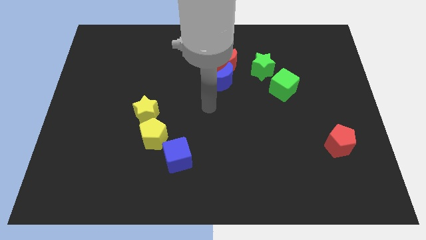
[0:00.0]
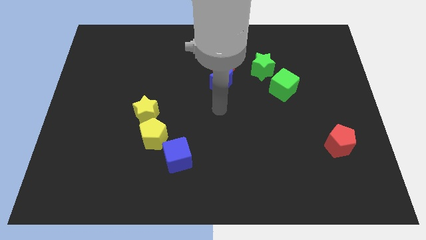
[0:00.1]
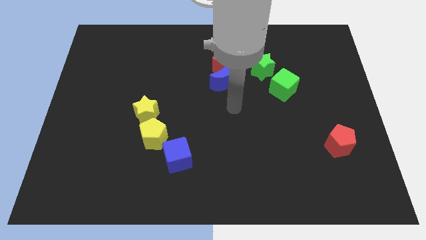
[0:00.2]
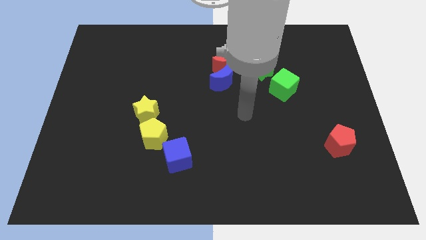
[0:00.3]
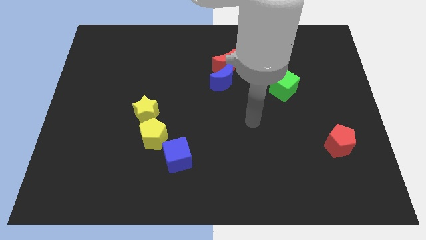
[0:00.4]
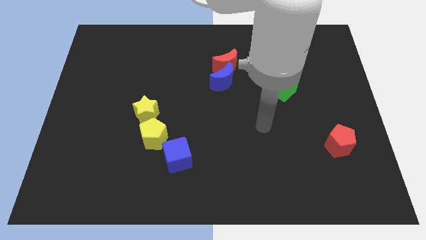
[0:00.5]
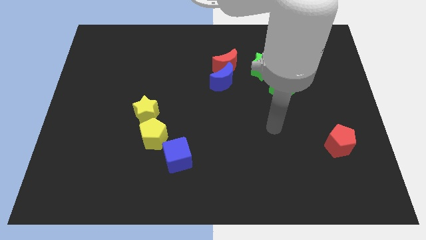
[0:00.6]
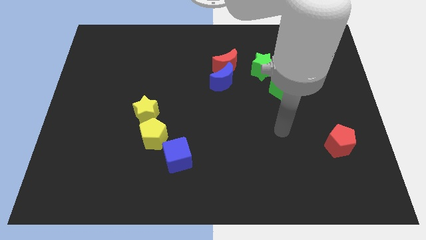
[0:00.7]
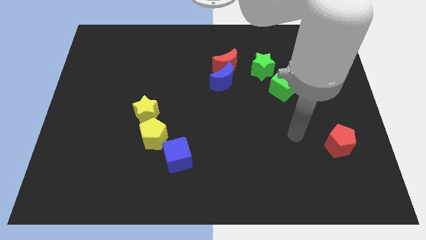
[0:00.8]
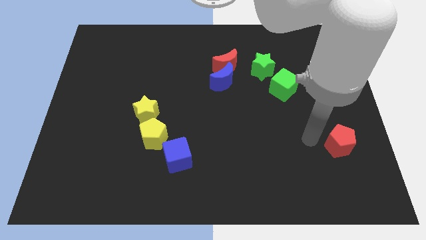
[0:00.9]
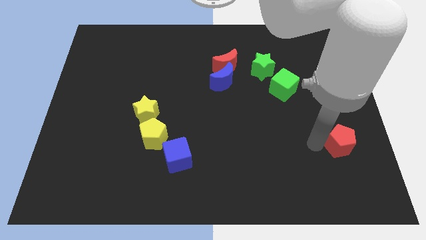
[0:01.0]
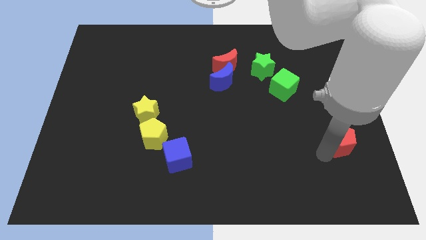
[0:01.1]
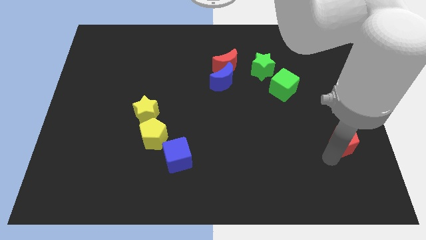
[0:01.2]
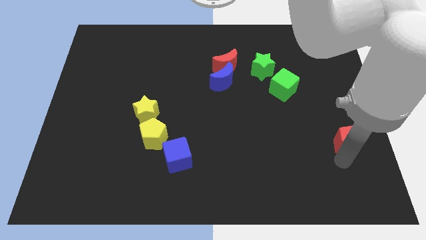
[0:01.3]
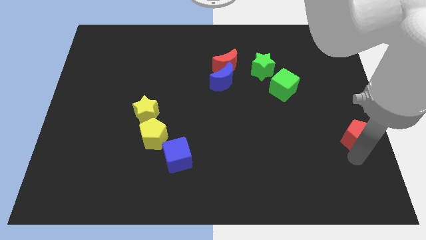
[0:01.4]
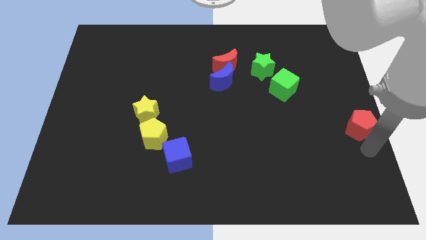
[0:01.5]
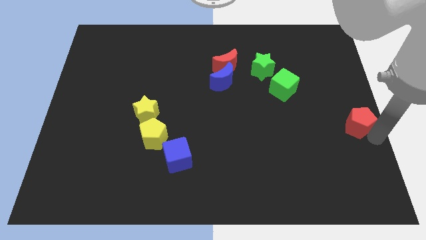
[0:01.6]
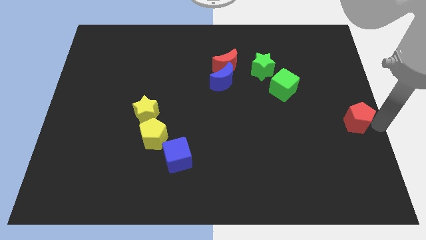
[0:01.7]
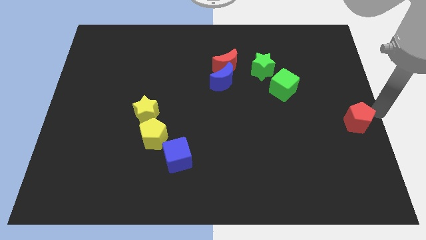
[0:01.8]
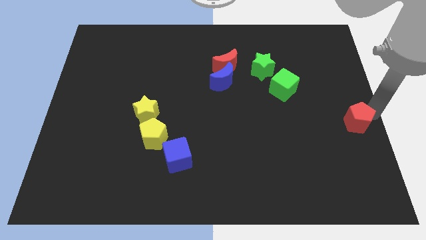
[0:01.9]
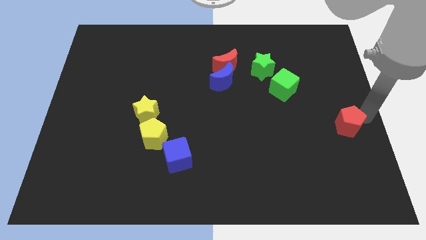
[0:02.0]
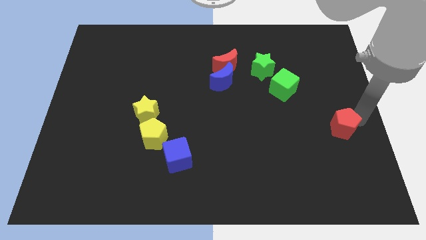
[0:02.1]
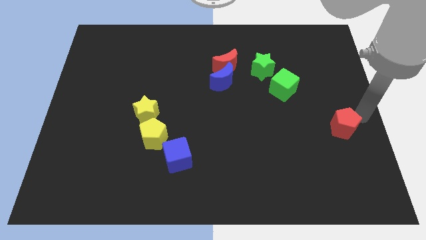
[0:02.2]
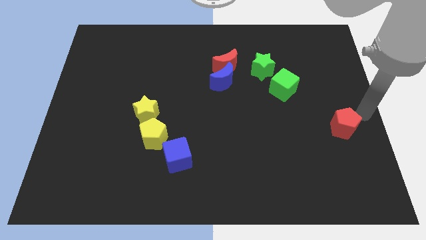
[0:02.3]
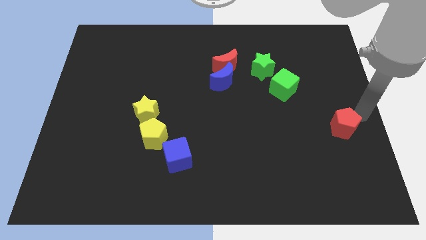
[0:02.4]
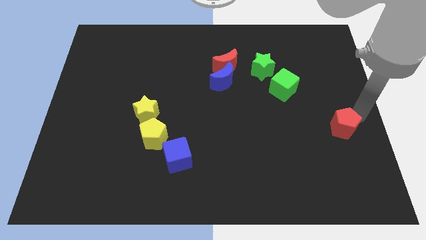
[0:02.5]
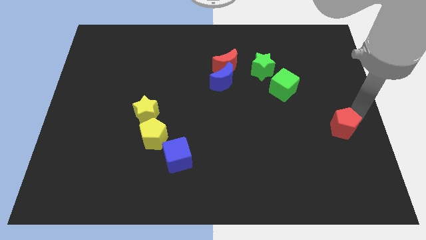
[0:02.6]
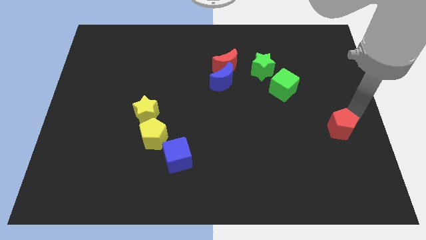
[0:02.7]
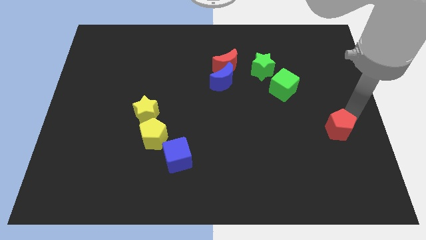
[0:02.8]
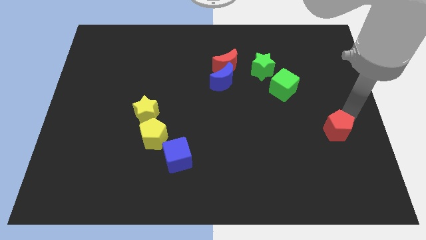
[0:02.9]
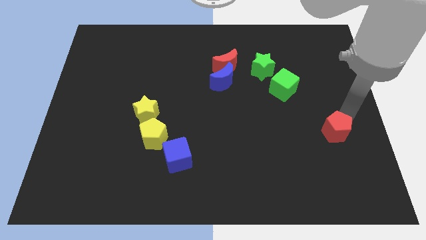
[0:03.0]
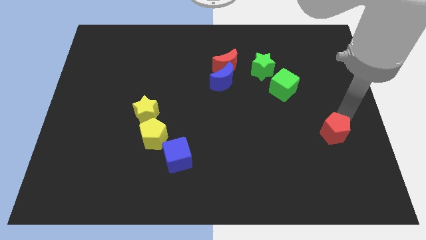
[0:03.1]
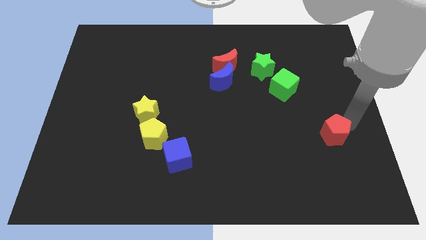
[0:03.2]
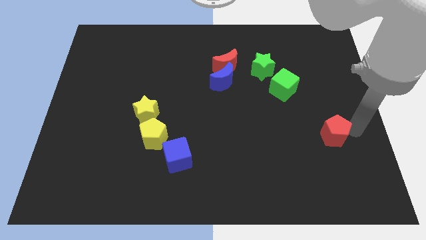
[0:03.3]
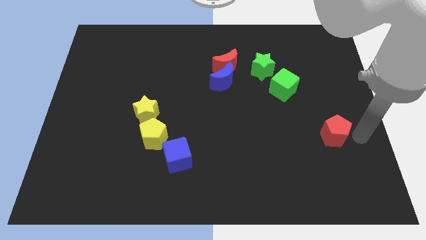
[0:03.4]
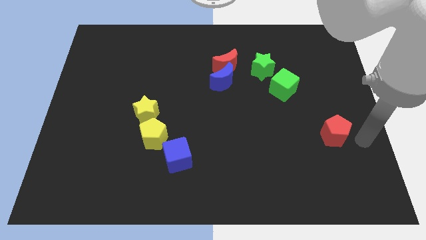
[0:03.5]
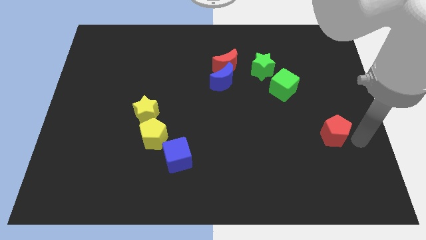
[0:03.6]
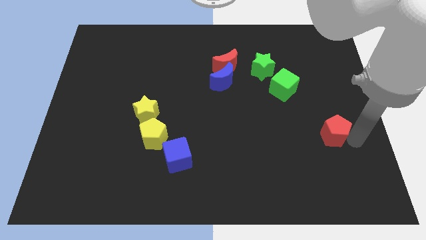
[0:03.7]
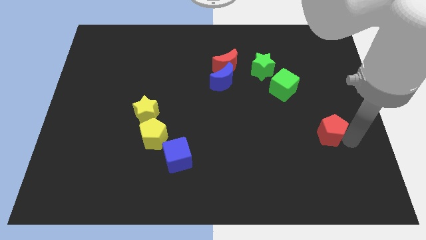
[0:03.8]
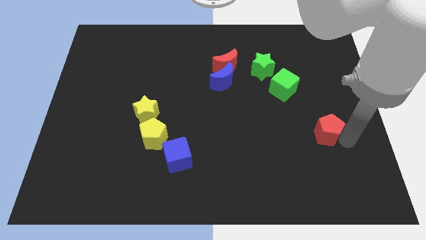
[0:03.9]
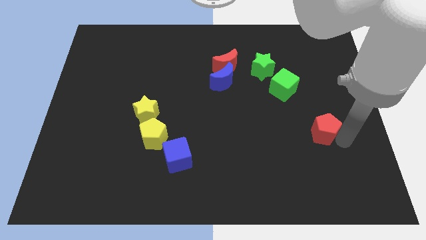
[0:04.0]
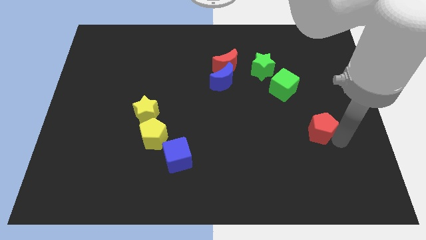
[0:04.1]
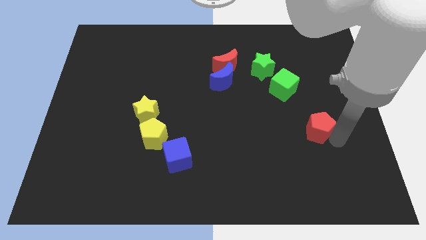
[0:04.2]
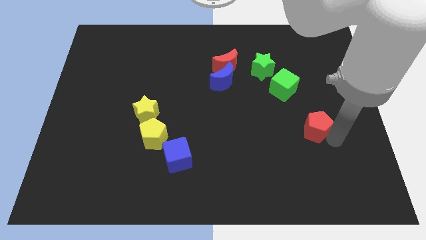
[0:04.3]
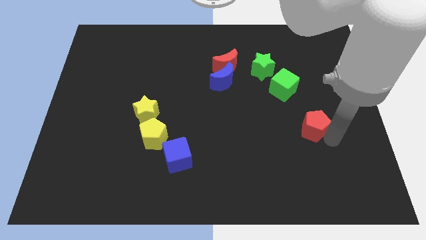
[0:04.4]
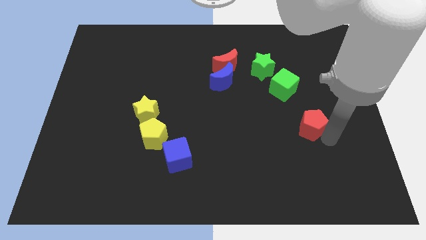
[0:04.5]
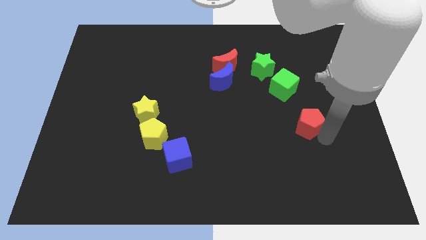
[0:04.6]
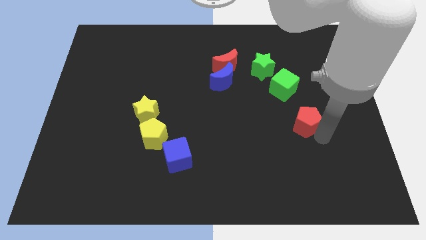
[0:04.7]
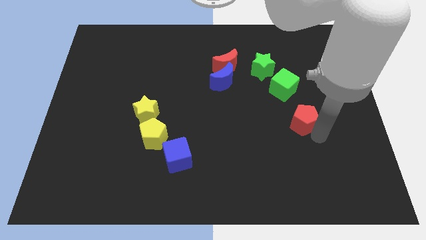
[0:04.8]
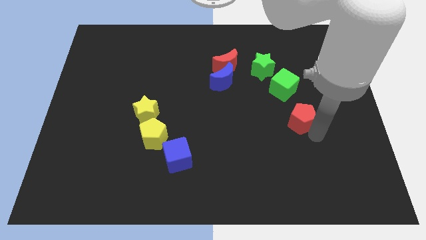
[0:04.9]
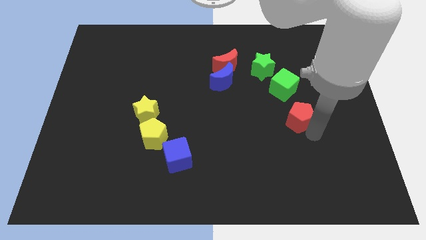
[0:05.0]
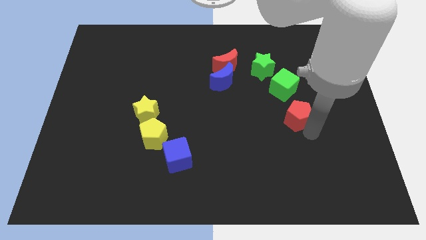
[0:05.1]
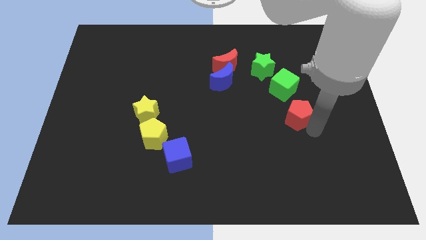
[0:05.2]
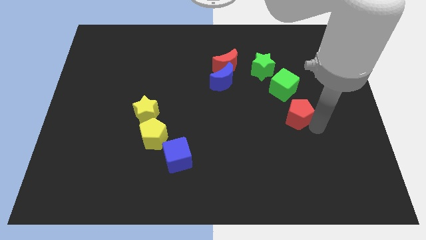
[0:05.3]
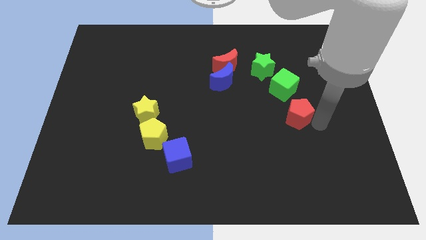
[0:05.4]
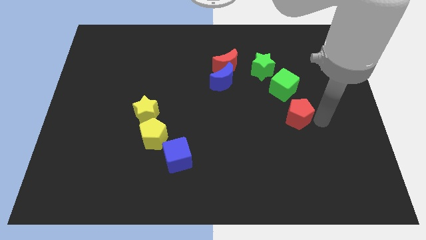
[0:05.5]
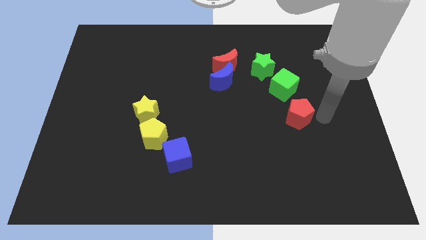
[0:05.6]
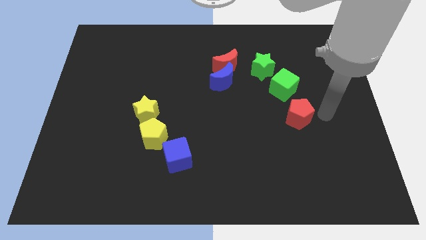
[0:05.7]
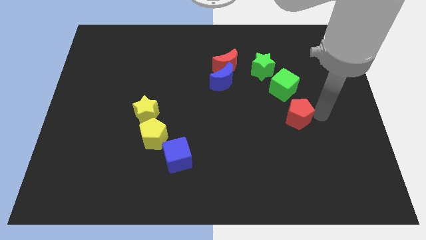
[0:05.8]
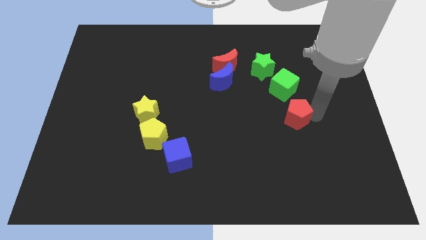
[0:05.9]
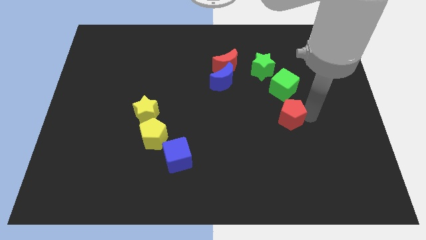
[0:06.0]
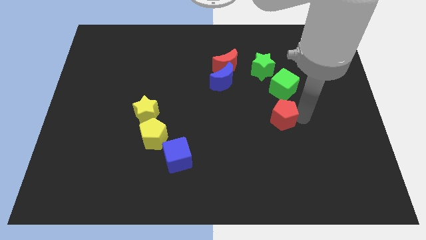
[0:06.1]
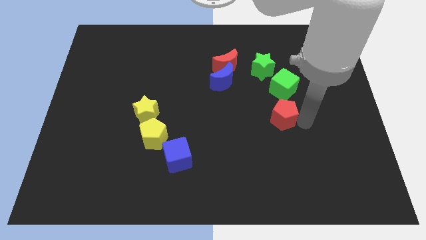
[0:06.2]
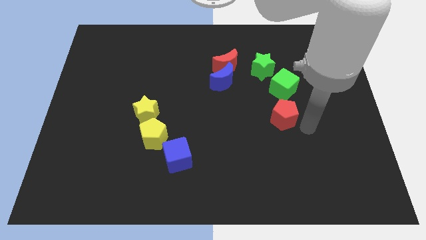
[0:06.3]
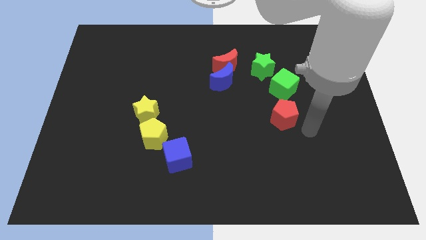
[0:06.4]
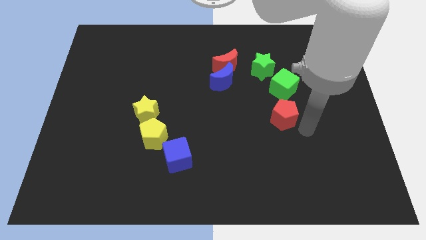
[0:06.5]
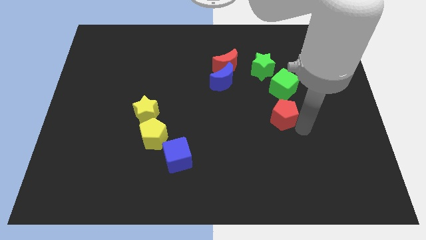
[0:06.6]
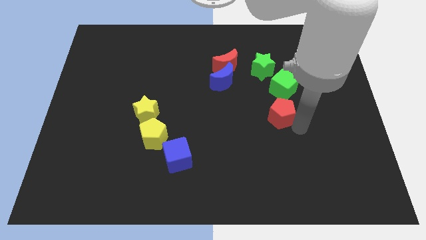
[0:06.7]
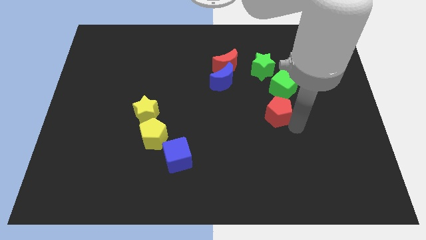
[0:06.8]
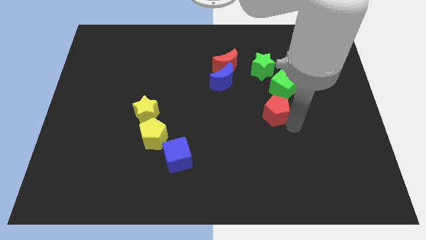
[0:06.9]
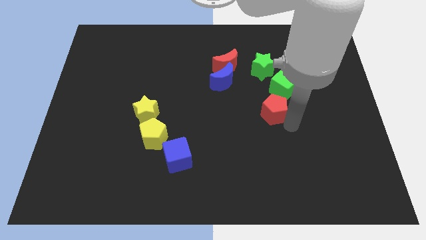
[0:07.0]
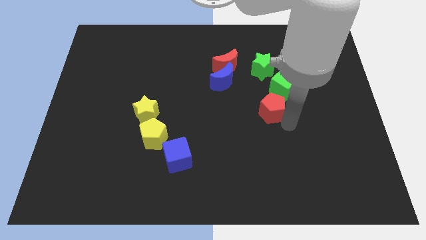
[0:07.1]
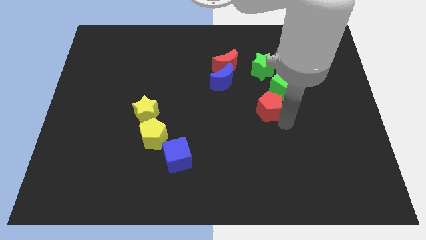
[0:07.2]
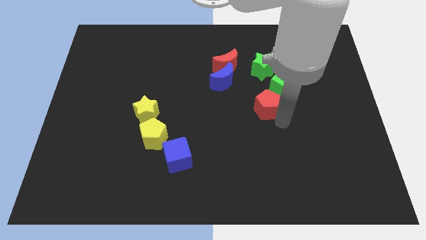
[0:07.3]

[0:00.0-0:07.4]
push the red pentagon to the bottom right side of the blue moon
